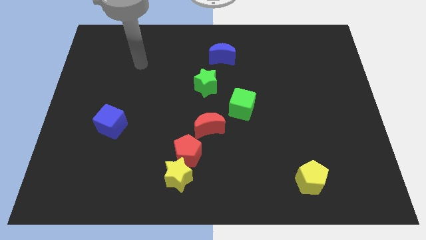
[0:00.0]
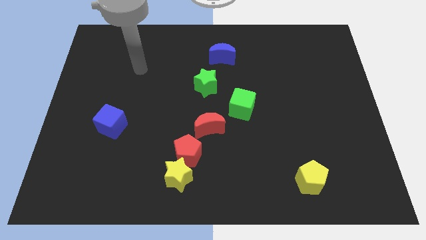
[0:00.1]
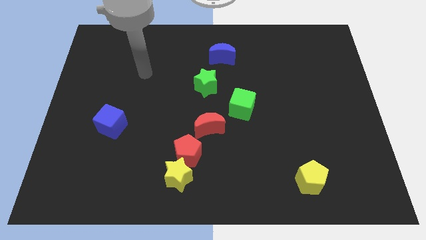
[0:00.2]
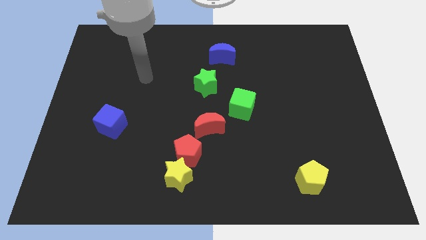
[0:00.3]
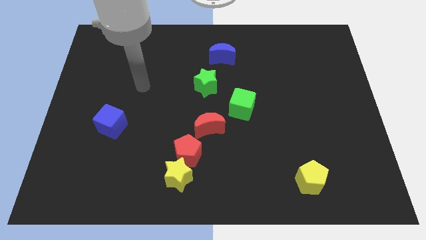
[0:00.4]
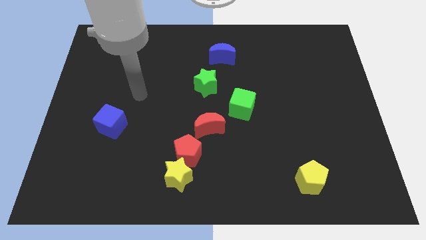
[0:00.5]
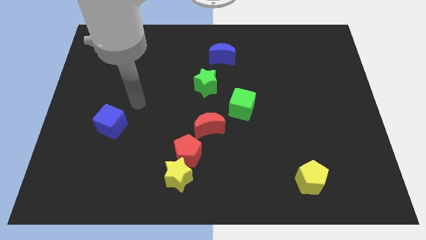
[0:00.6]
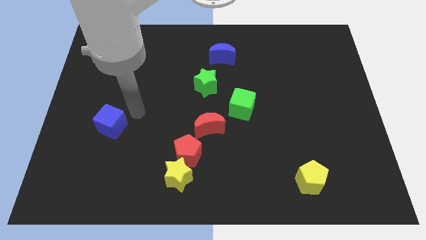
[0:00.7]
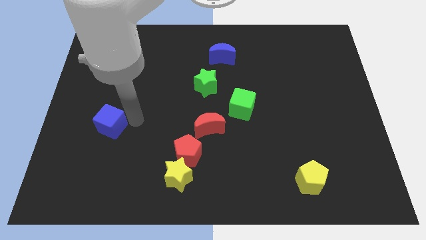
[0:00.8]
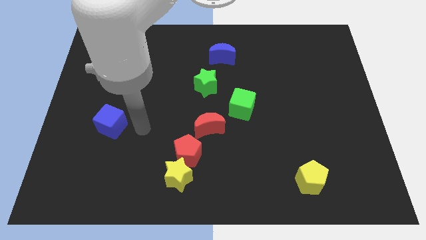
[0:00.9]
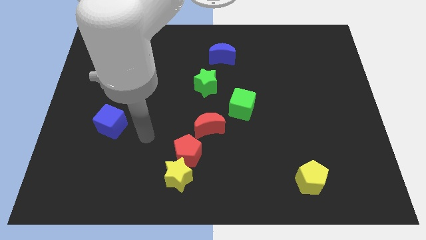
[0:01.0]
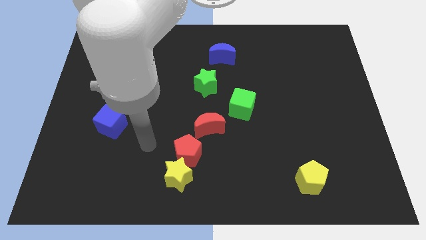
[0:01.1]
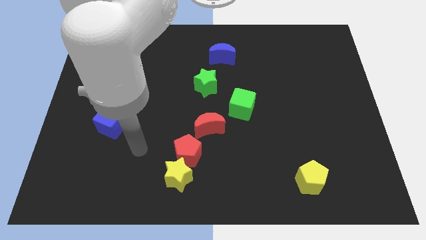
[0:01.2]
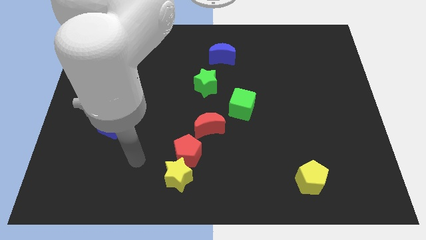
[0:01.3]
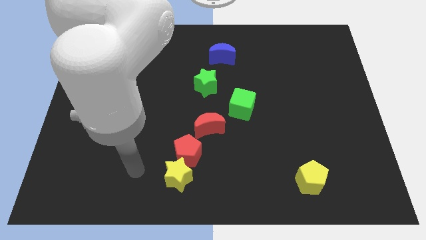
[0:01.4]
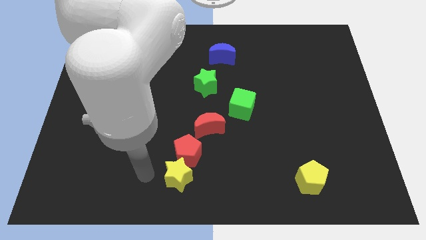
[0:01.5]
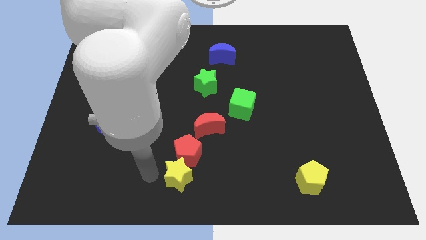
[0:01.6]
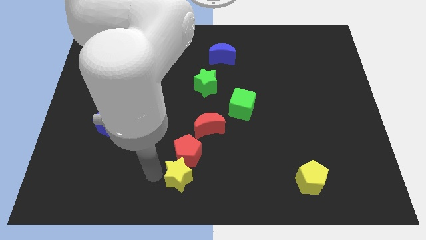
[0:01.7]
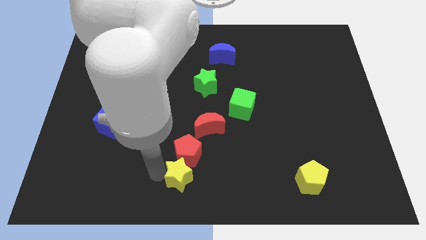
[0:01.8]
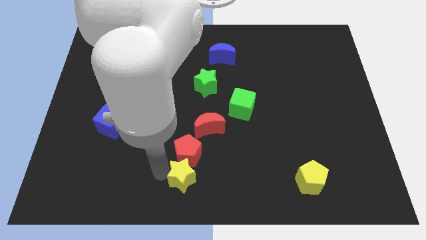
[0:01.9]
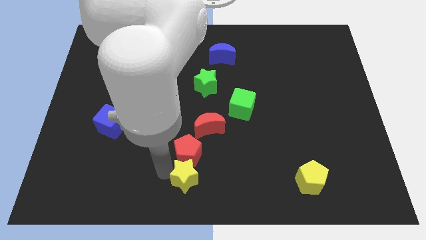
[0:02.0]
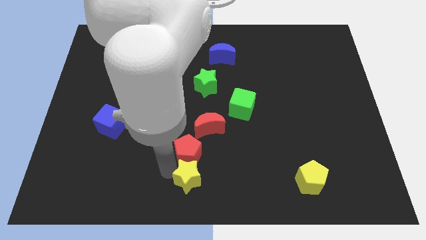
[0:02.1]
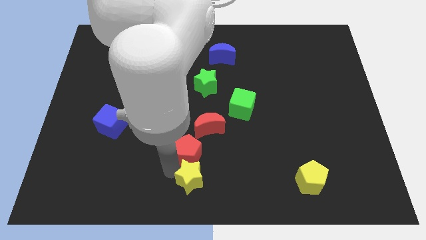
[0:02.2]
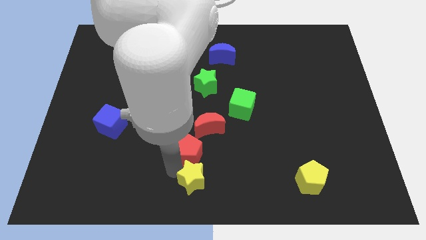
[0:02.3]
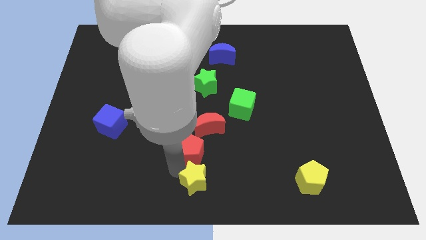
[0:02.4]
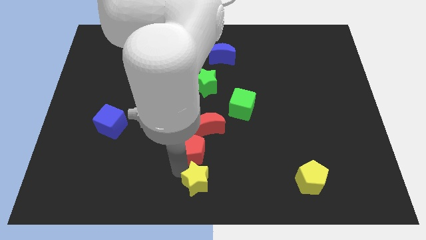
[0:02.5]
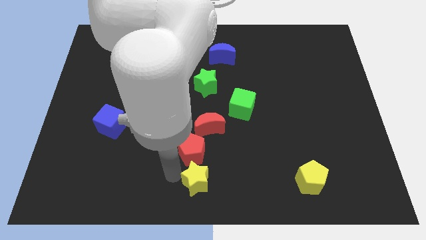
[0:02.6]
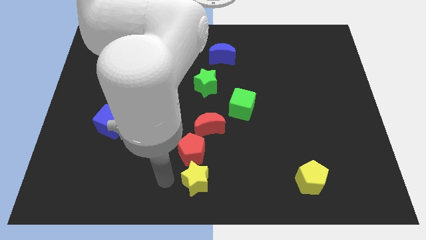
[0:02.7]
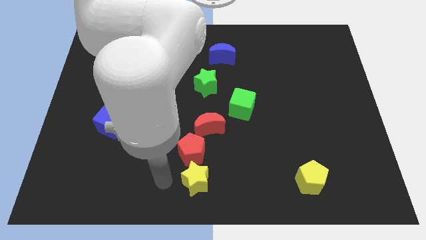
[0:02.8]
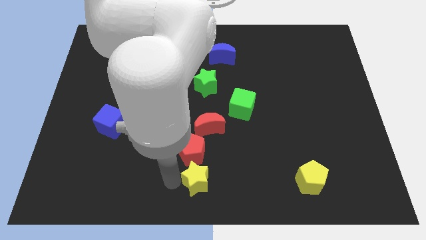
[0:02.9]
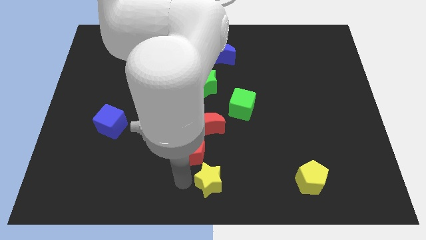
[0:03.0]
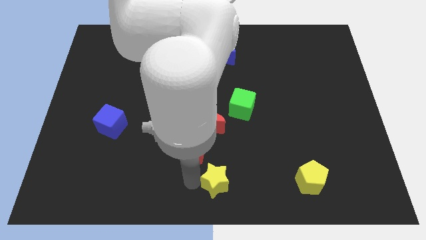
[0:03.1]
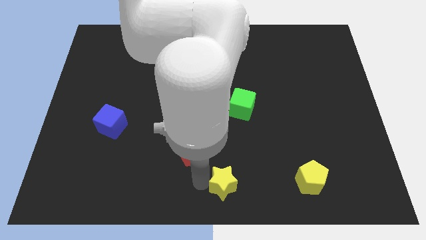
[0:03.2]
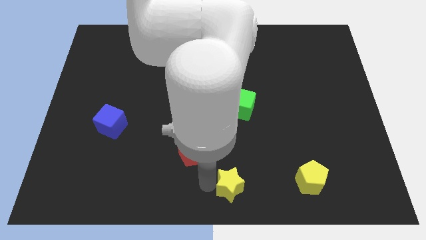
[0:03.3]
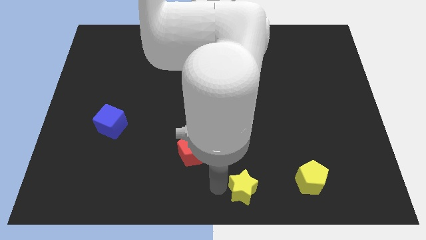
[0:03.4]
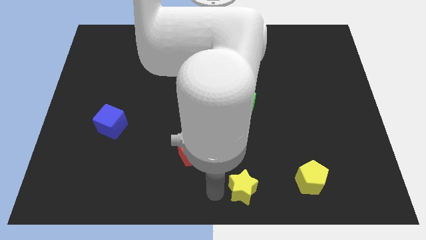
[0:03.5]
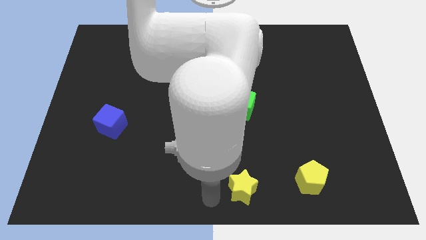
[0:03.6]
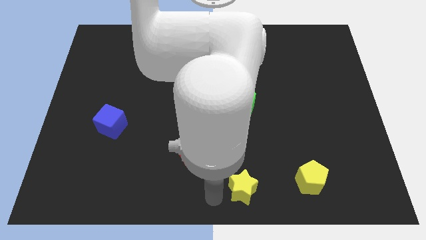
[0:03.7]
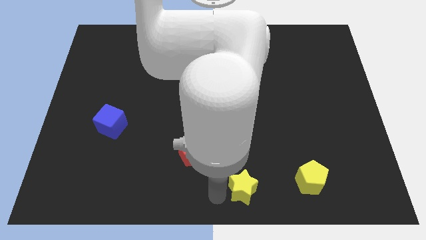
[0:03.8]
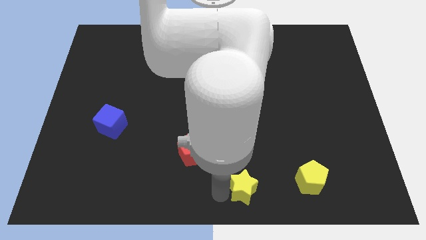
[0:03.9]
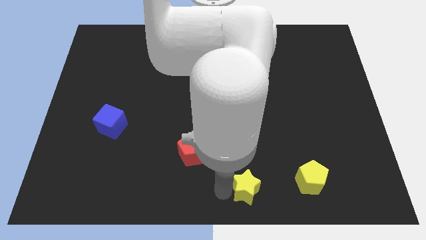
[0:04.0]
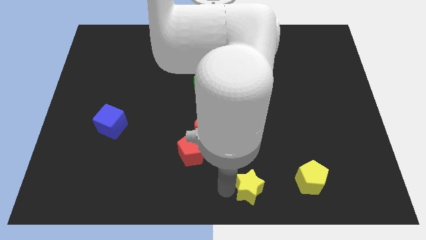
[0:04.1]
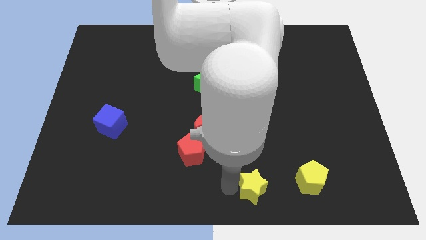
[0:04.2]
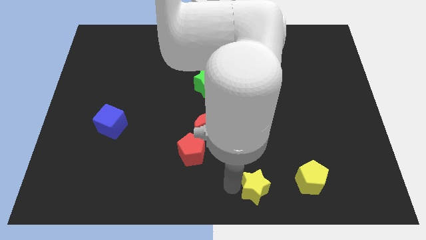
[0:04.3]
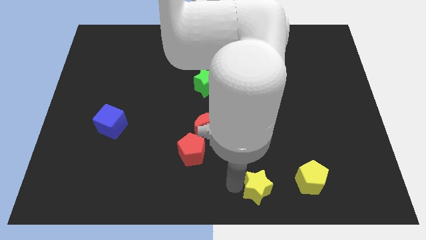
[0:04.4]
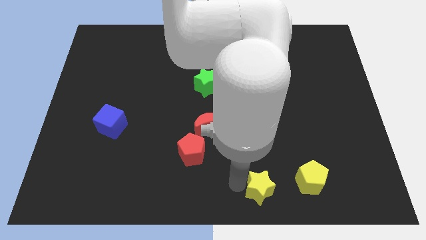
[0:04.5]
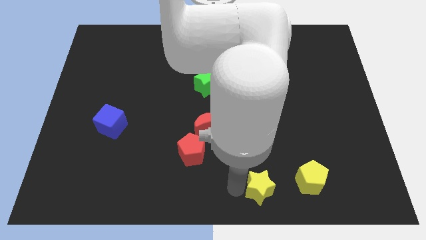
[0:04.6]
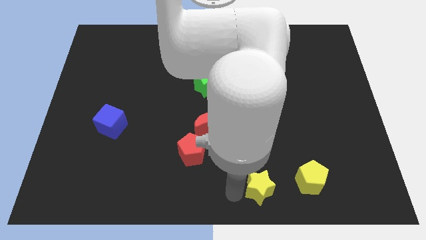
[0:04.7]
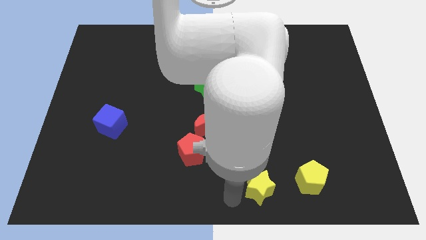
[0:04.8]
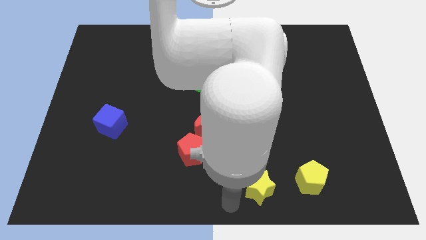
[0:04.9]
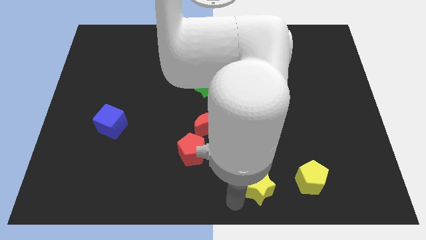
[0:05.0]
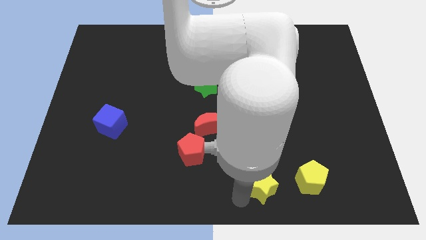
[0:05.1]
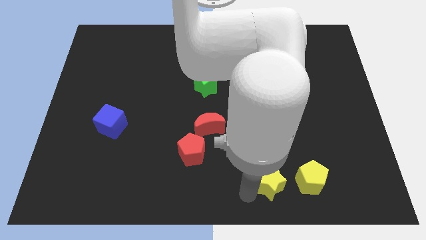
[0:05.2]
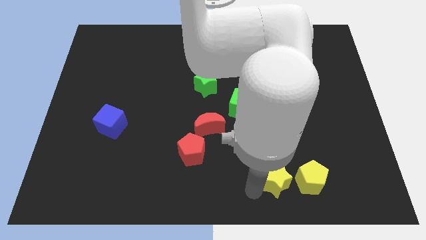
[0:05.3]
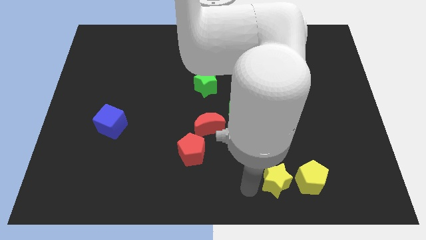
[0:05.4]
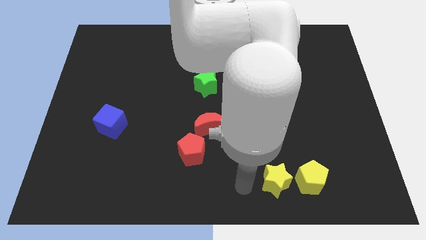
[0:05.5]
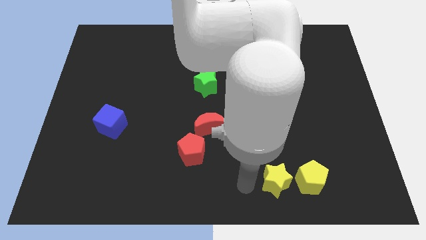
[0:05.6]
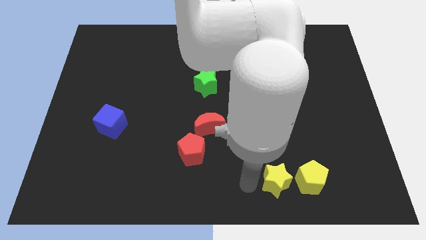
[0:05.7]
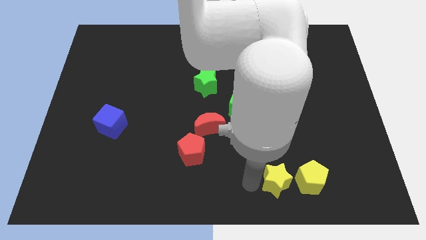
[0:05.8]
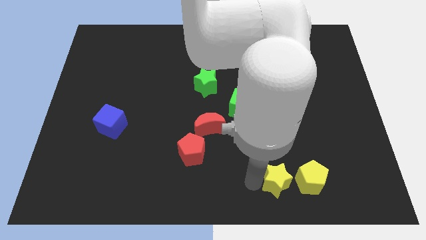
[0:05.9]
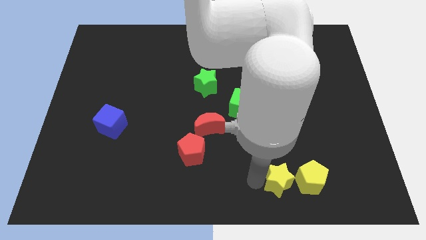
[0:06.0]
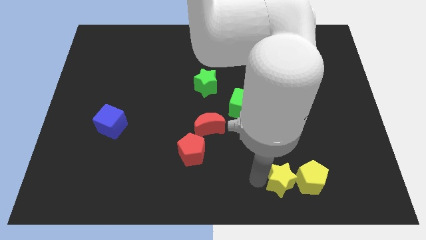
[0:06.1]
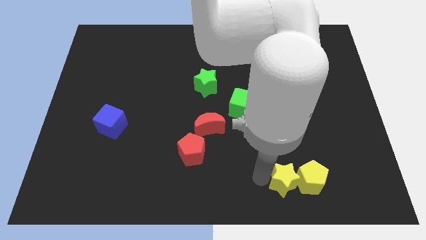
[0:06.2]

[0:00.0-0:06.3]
put the yellow star next to the yellow pentagon

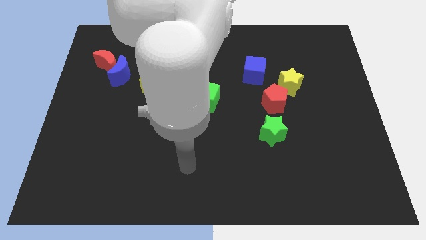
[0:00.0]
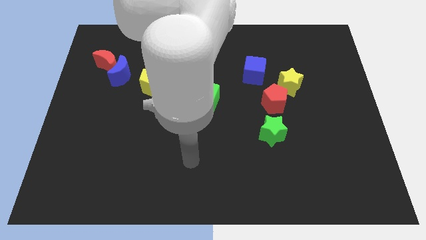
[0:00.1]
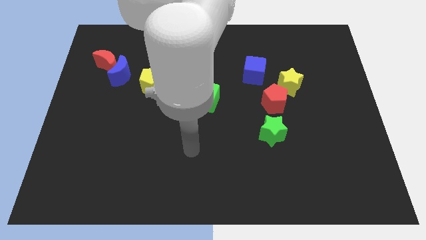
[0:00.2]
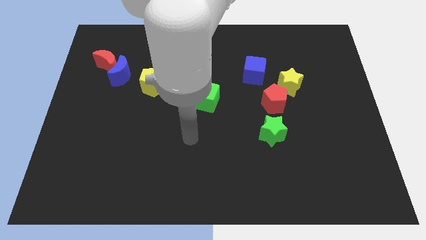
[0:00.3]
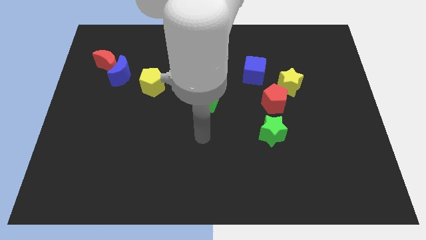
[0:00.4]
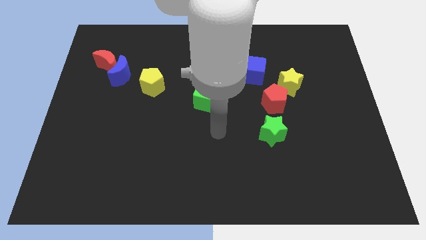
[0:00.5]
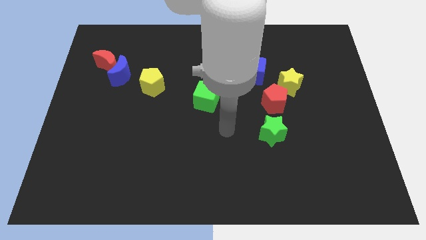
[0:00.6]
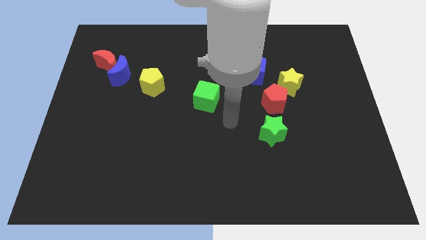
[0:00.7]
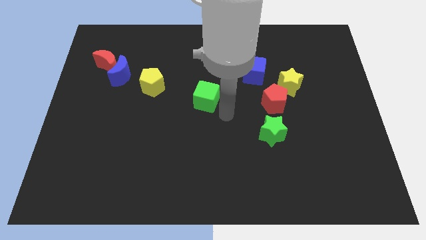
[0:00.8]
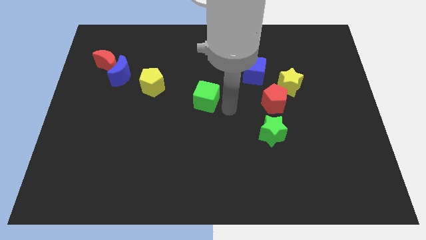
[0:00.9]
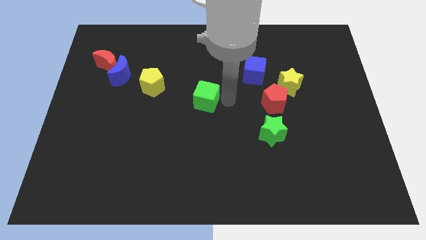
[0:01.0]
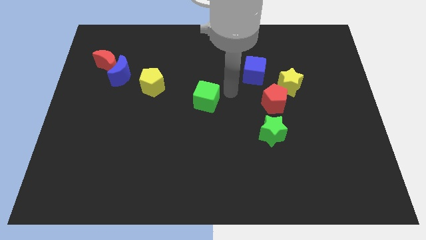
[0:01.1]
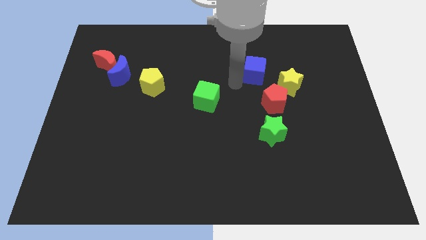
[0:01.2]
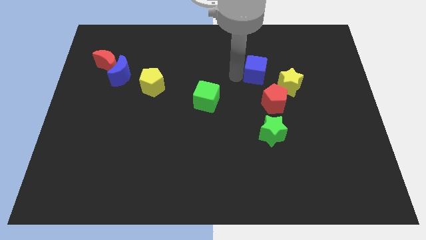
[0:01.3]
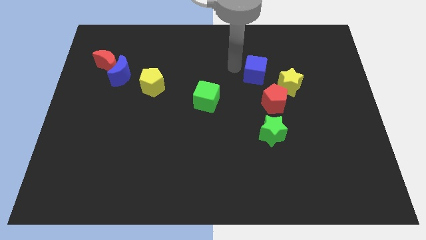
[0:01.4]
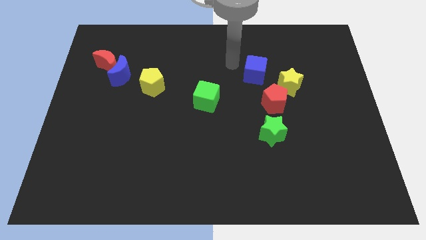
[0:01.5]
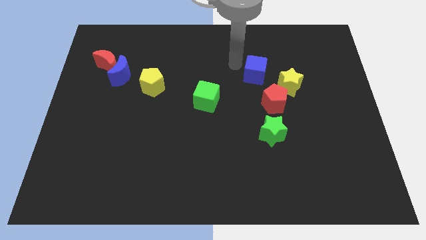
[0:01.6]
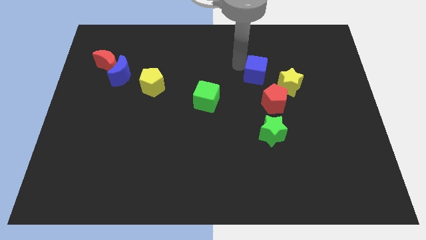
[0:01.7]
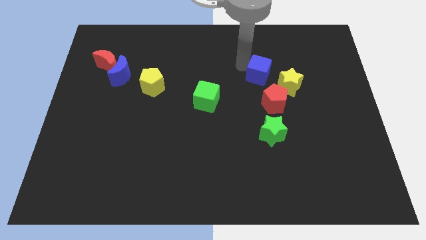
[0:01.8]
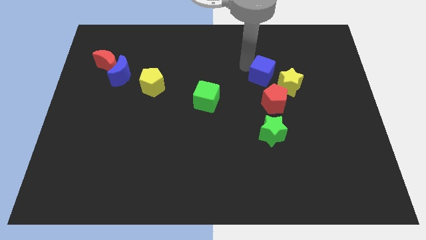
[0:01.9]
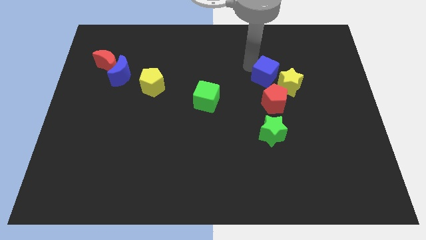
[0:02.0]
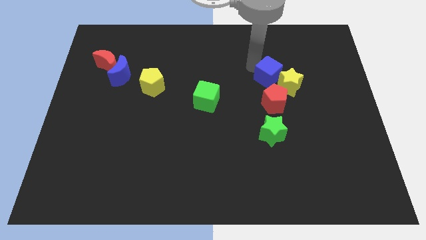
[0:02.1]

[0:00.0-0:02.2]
move the blue cube to the yellow star
